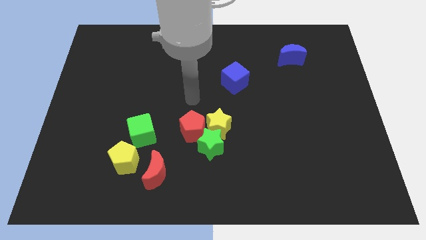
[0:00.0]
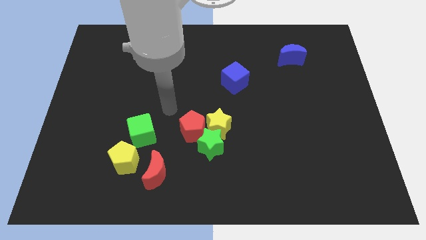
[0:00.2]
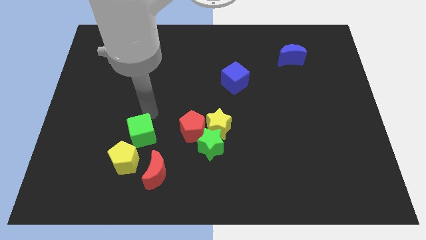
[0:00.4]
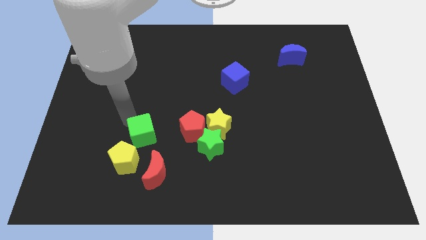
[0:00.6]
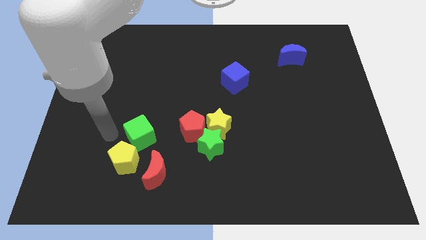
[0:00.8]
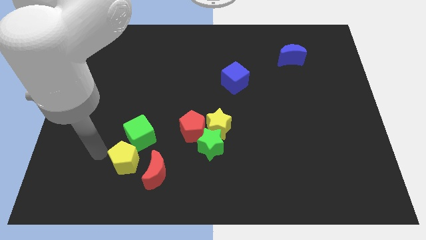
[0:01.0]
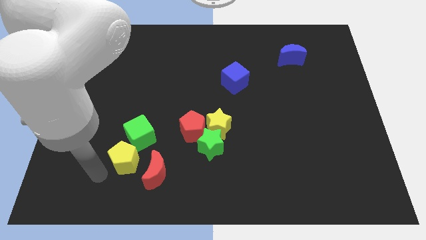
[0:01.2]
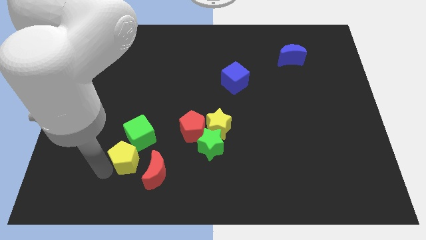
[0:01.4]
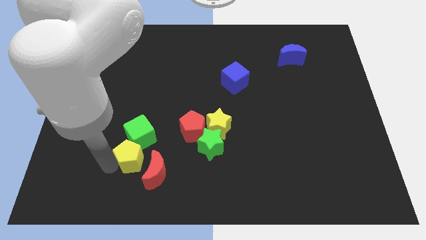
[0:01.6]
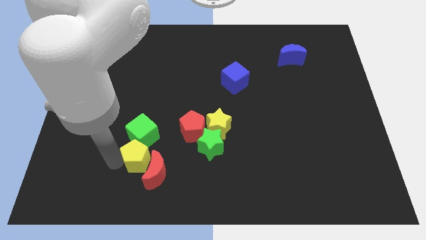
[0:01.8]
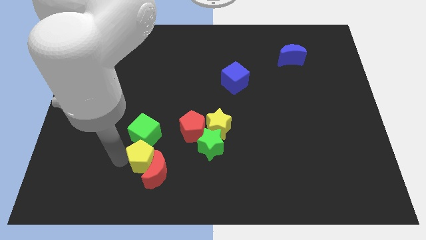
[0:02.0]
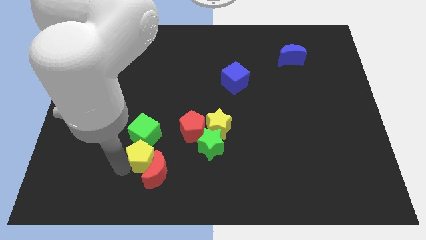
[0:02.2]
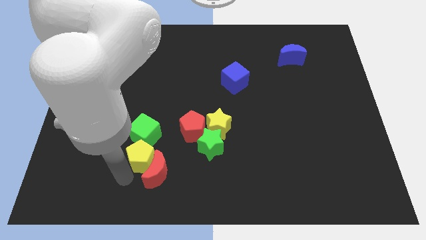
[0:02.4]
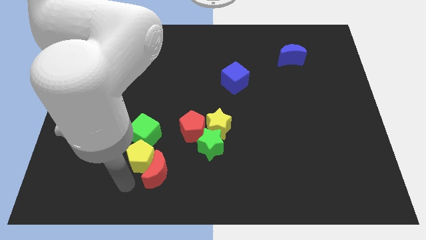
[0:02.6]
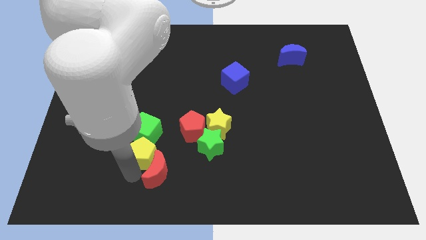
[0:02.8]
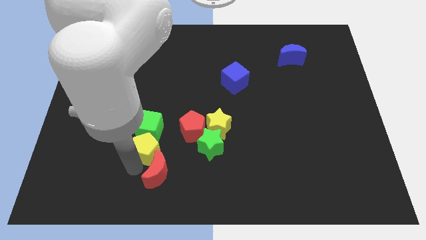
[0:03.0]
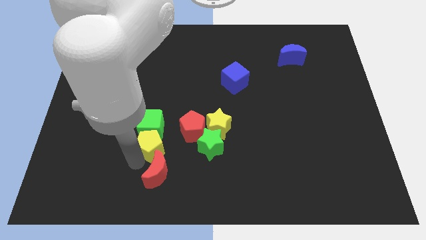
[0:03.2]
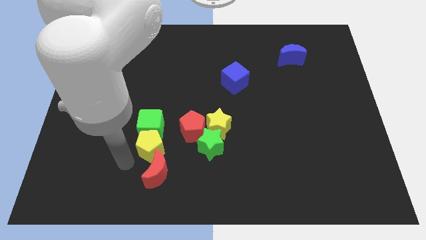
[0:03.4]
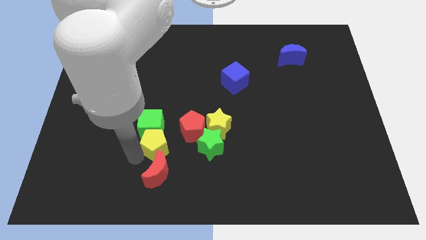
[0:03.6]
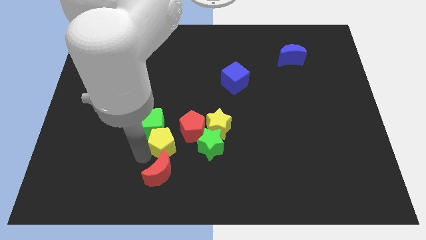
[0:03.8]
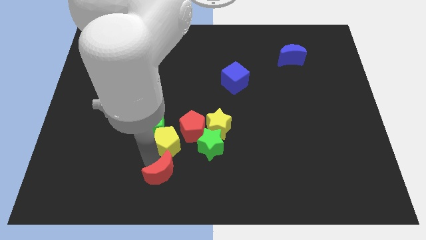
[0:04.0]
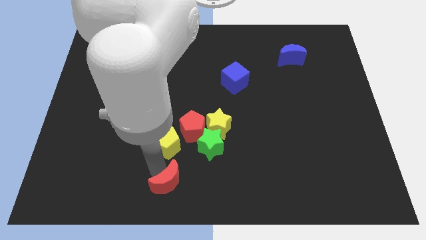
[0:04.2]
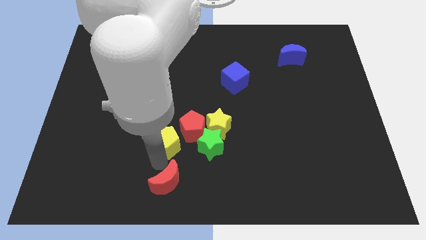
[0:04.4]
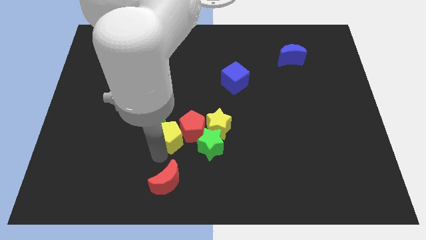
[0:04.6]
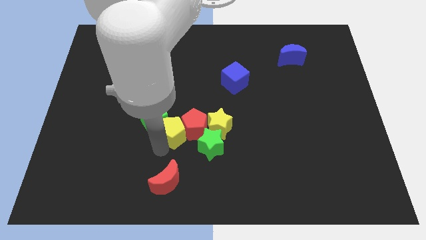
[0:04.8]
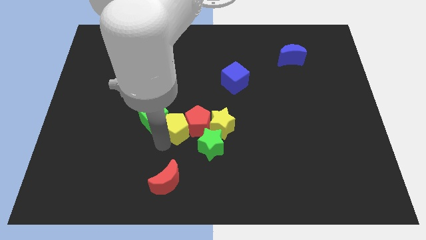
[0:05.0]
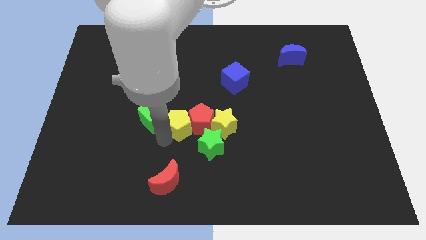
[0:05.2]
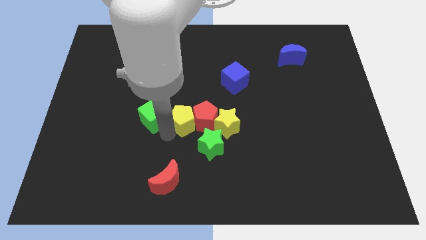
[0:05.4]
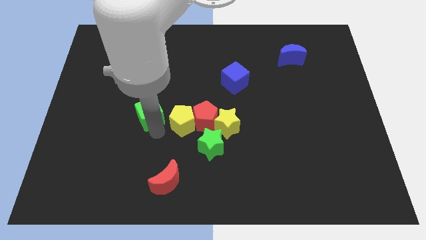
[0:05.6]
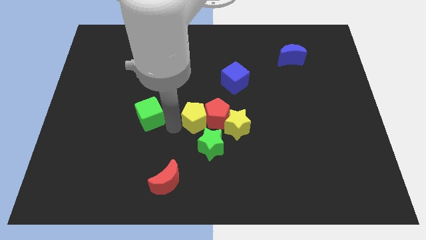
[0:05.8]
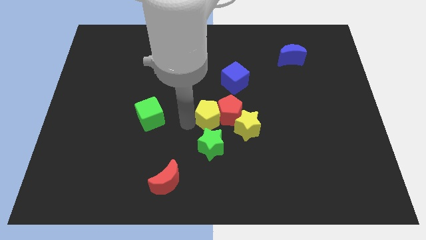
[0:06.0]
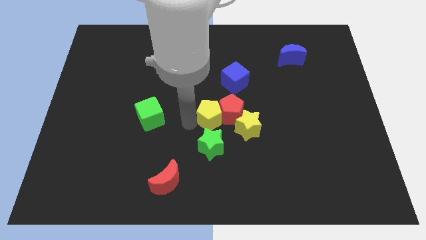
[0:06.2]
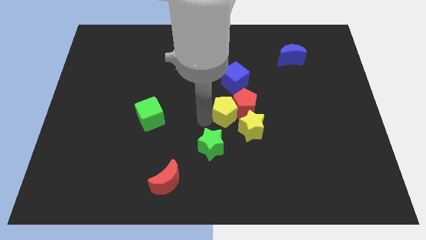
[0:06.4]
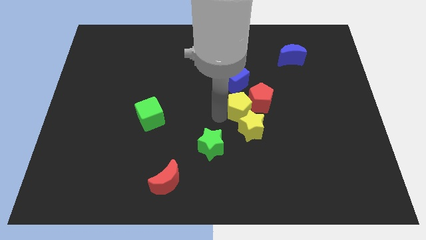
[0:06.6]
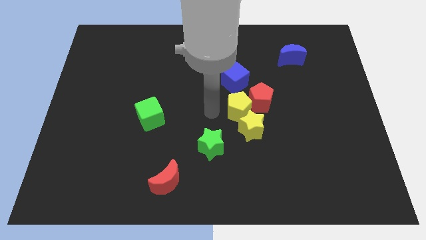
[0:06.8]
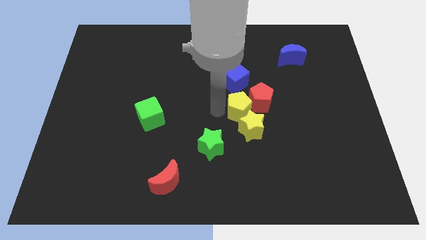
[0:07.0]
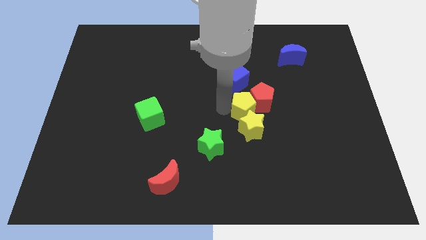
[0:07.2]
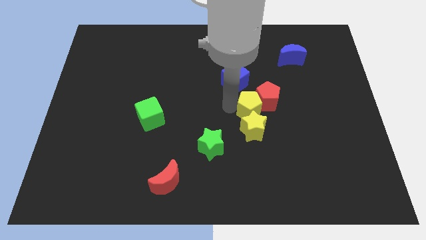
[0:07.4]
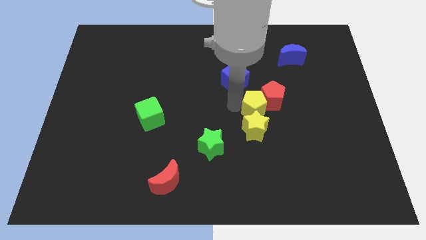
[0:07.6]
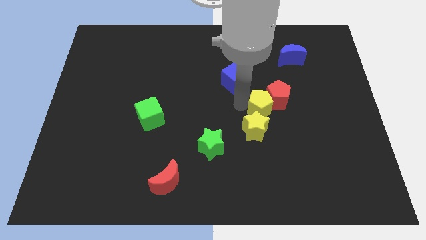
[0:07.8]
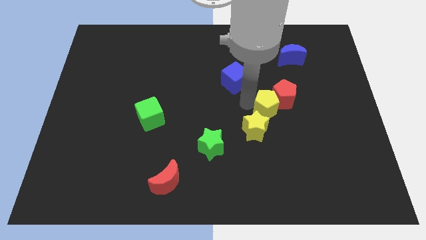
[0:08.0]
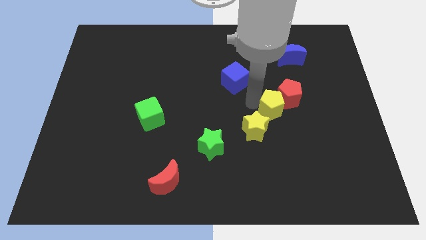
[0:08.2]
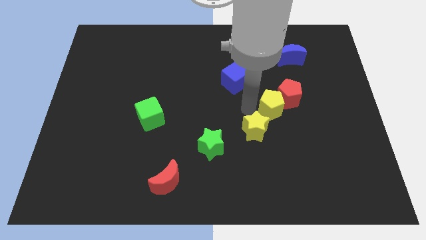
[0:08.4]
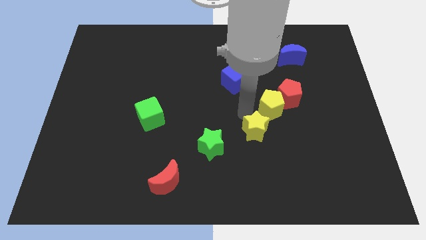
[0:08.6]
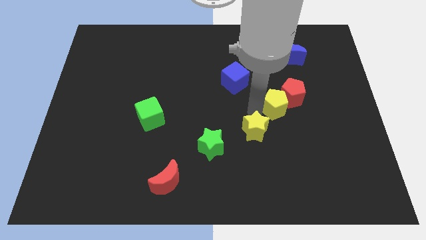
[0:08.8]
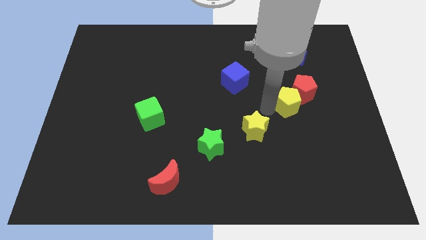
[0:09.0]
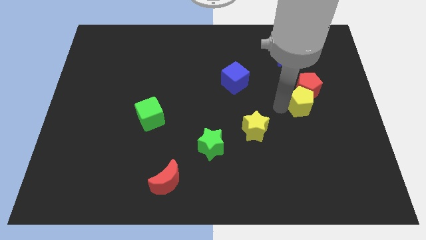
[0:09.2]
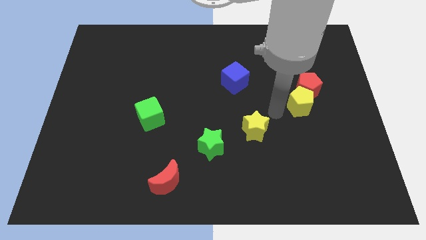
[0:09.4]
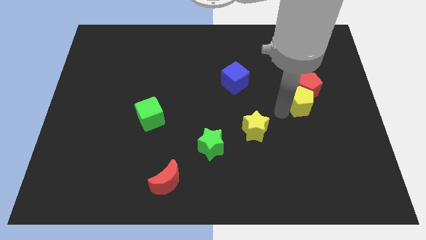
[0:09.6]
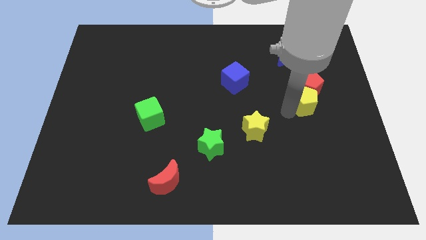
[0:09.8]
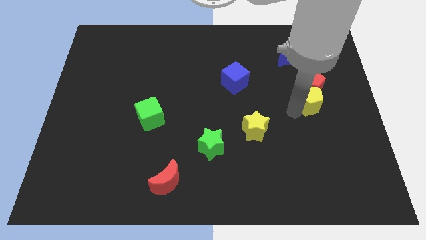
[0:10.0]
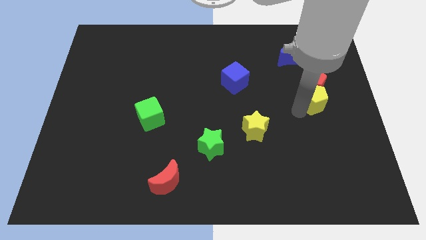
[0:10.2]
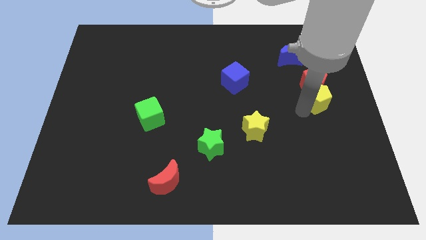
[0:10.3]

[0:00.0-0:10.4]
move the yellow pentagon to the right side of the board

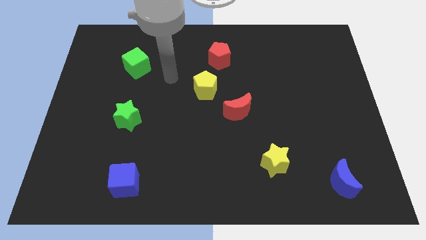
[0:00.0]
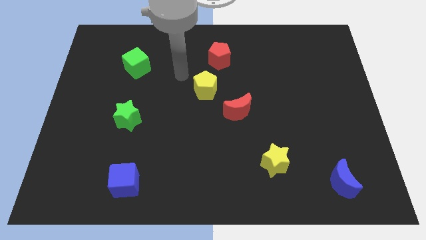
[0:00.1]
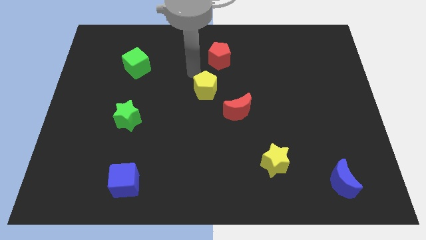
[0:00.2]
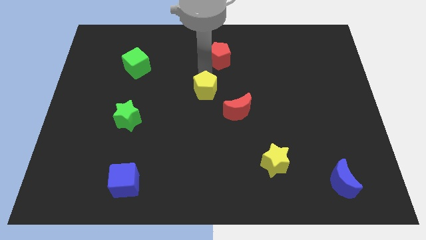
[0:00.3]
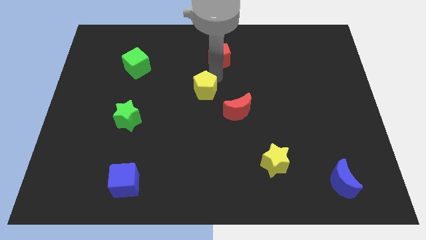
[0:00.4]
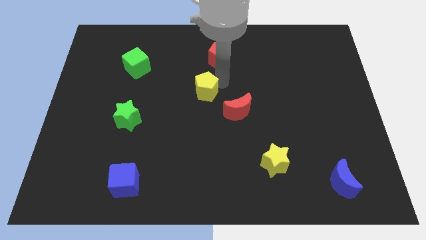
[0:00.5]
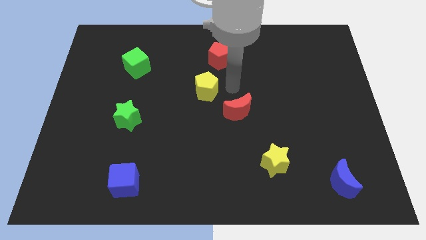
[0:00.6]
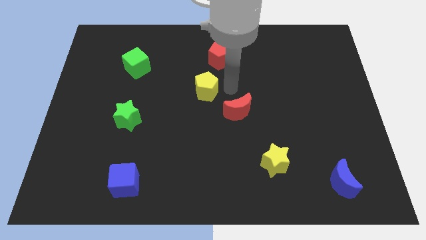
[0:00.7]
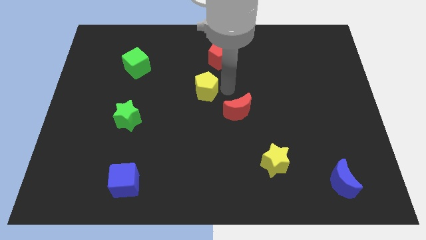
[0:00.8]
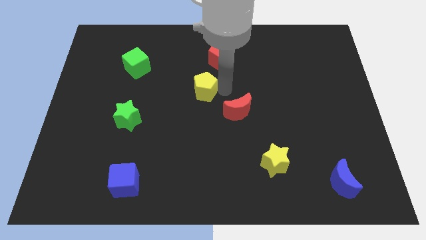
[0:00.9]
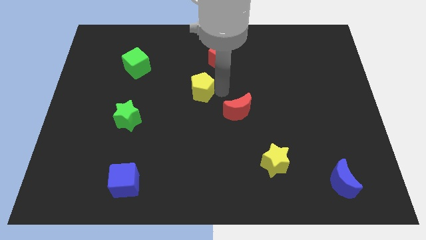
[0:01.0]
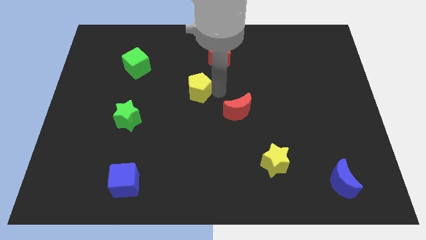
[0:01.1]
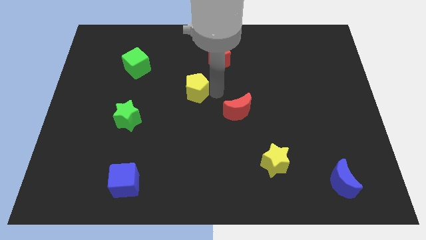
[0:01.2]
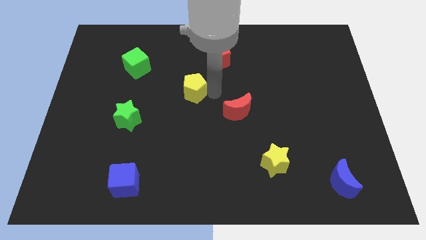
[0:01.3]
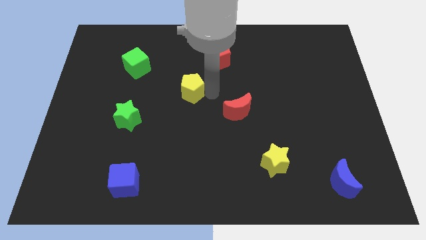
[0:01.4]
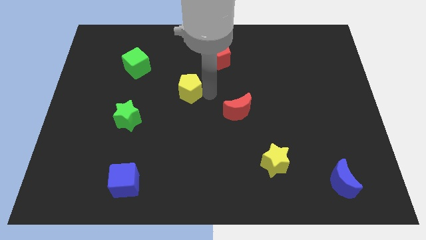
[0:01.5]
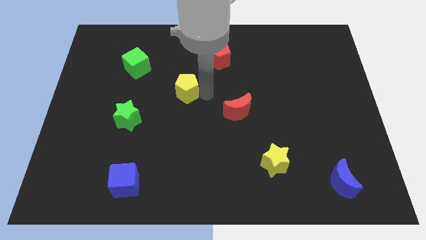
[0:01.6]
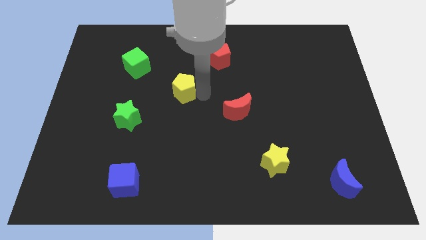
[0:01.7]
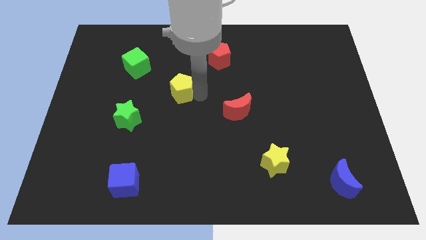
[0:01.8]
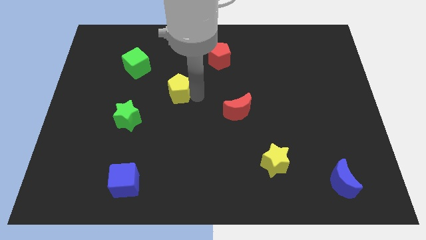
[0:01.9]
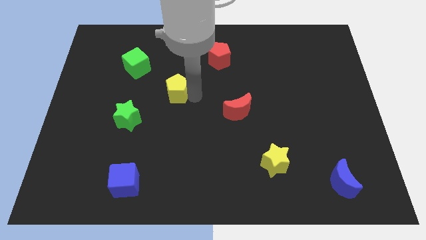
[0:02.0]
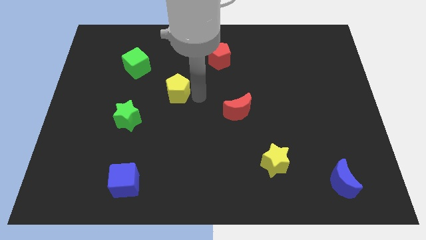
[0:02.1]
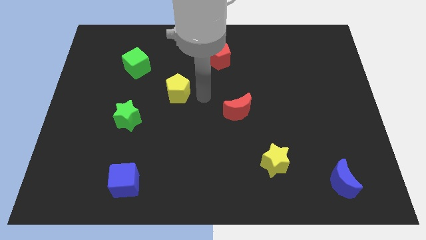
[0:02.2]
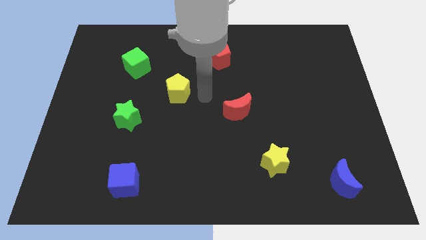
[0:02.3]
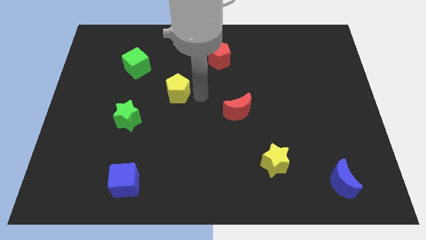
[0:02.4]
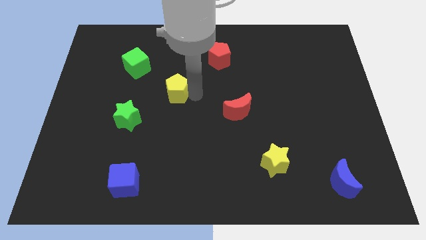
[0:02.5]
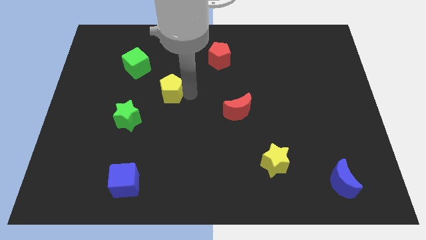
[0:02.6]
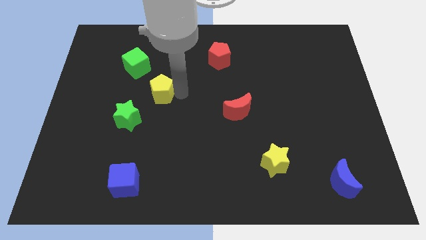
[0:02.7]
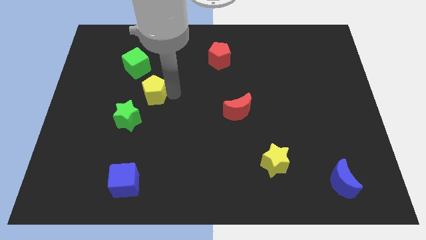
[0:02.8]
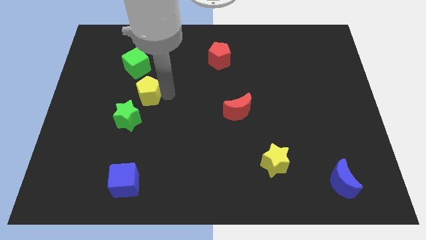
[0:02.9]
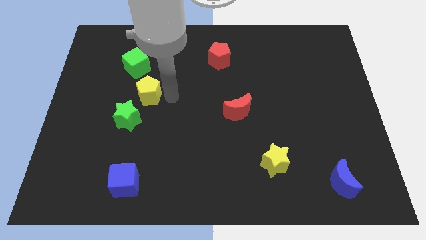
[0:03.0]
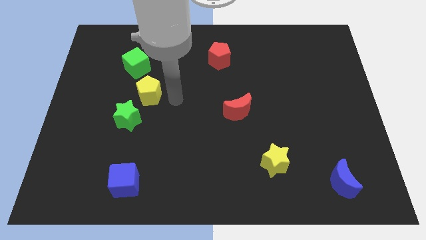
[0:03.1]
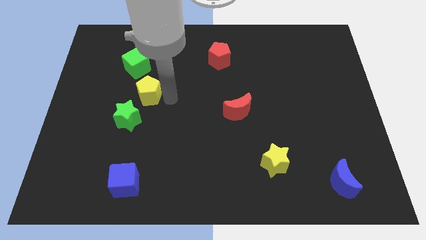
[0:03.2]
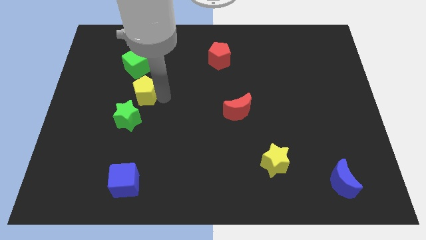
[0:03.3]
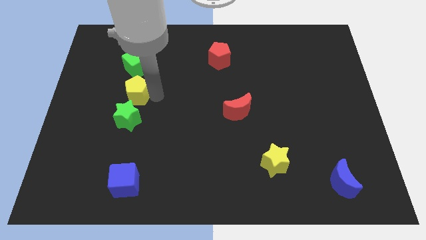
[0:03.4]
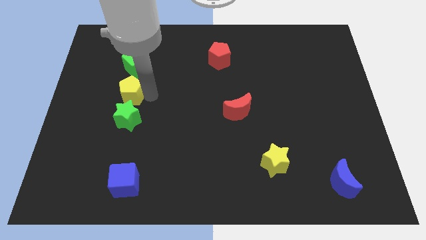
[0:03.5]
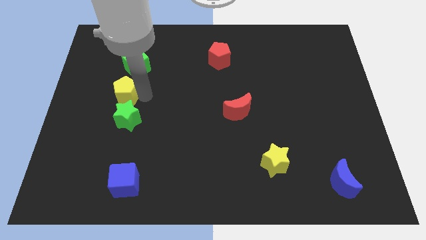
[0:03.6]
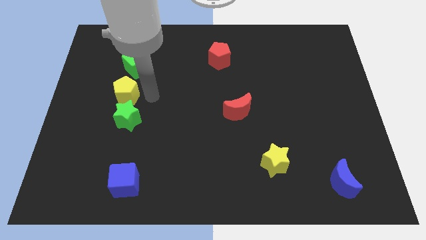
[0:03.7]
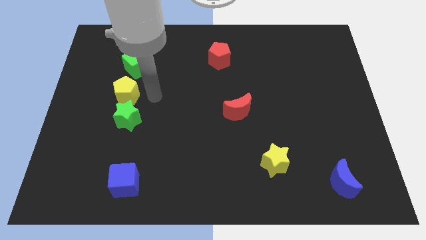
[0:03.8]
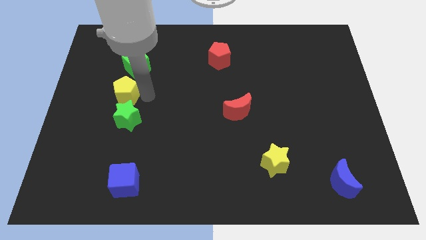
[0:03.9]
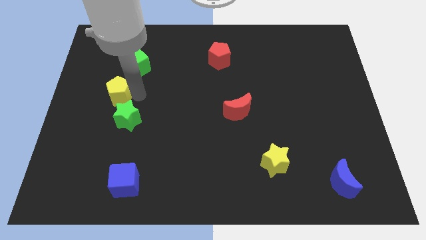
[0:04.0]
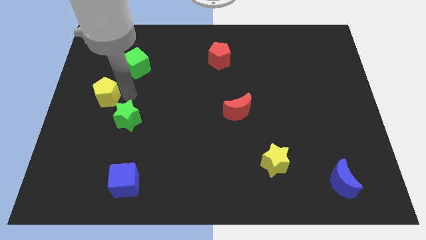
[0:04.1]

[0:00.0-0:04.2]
push the yellow pentagon to the center left
